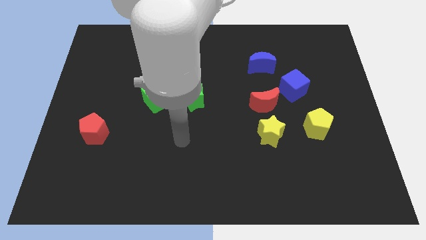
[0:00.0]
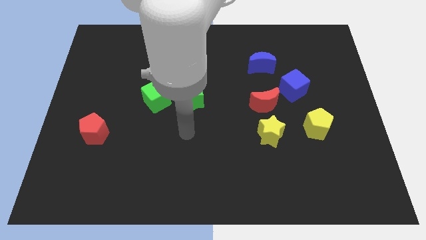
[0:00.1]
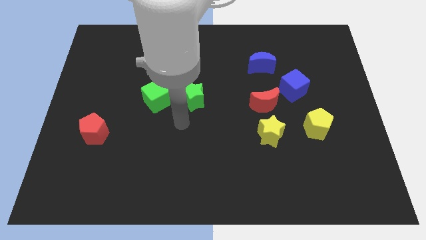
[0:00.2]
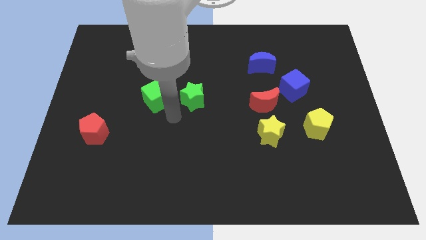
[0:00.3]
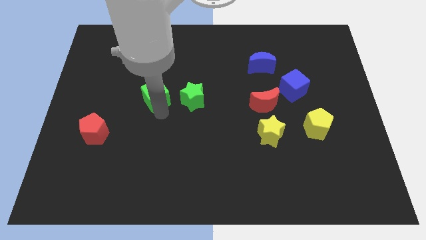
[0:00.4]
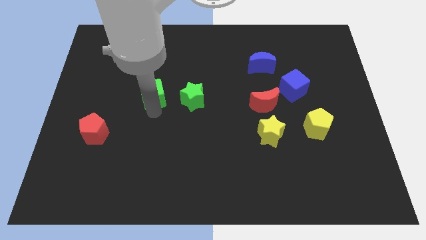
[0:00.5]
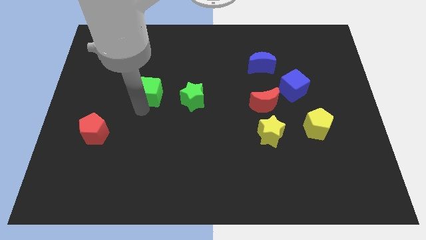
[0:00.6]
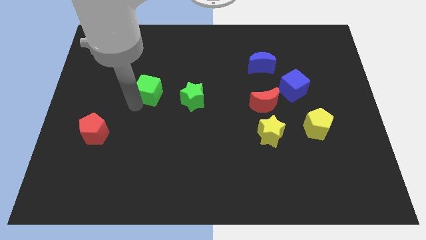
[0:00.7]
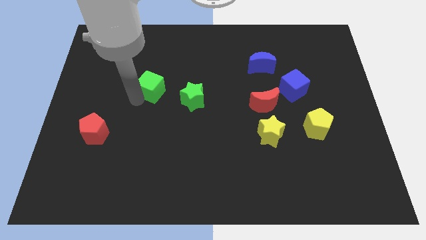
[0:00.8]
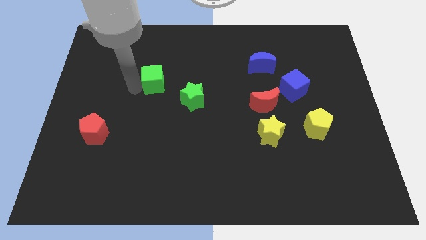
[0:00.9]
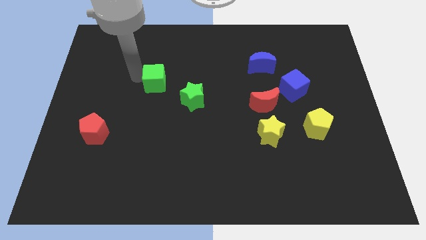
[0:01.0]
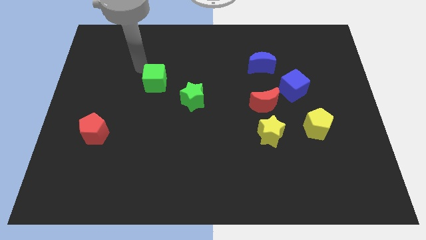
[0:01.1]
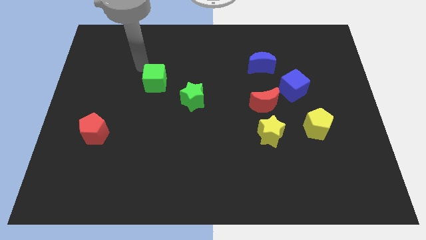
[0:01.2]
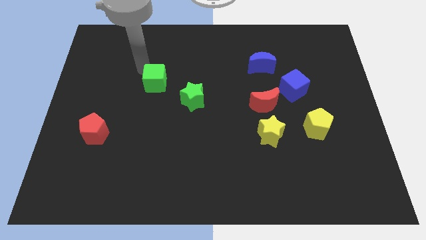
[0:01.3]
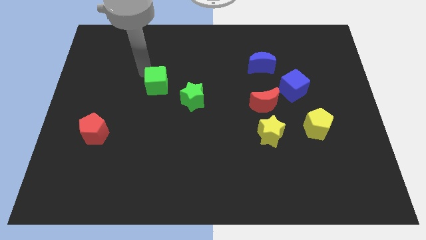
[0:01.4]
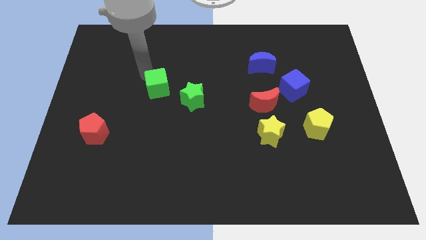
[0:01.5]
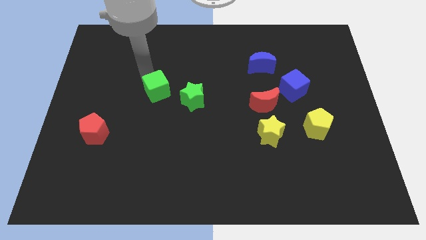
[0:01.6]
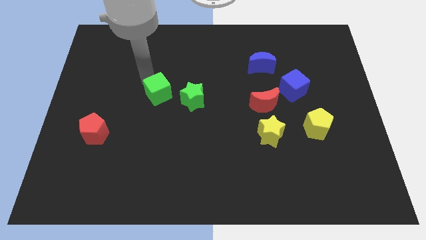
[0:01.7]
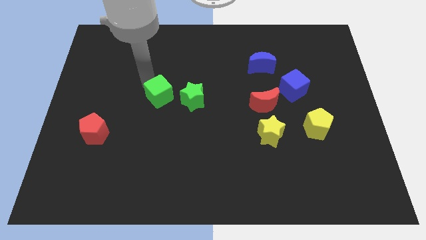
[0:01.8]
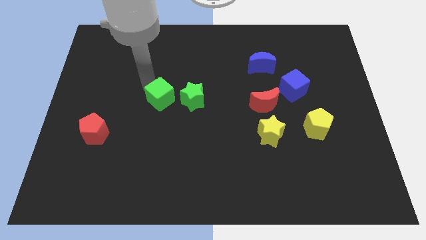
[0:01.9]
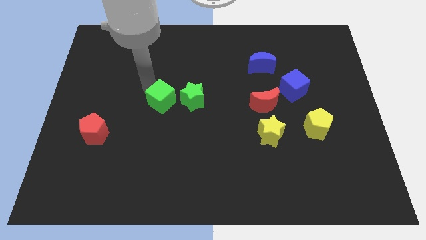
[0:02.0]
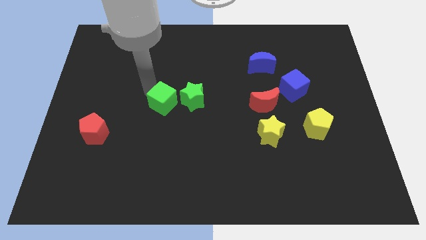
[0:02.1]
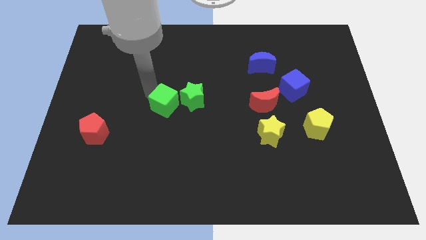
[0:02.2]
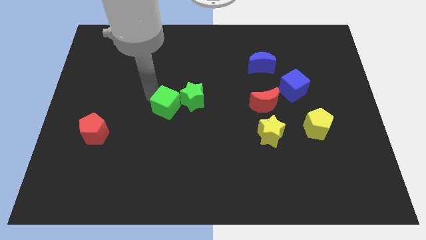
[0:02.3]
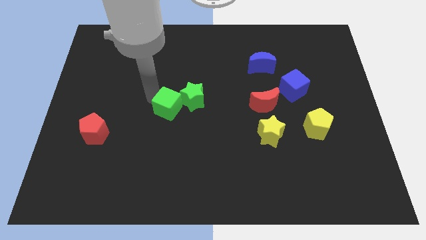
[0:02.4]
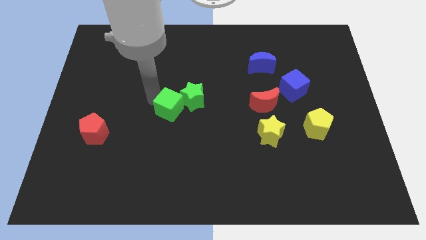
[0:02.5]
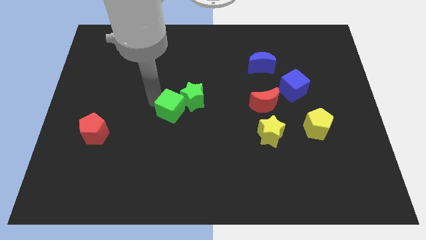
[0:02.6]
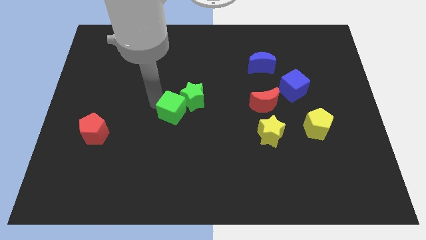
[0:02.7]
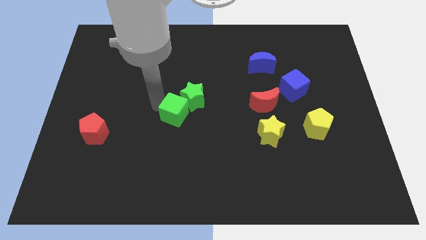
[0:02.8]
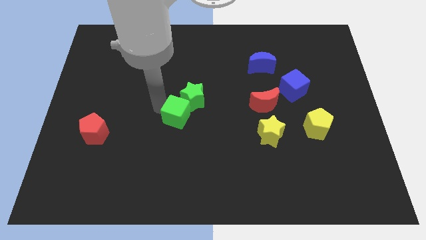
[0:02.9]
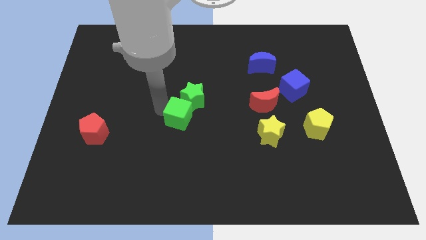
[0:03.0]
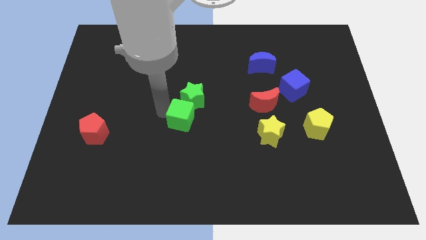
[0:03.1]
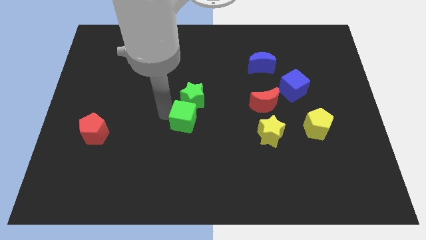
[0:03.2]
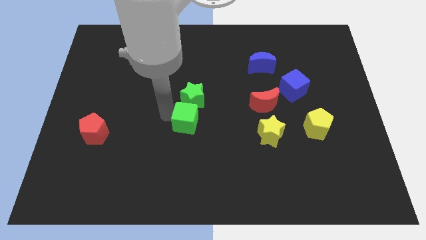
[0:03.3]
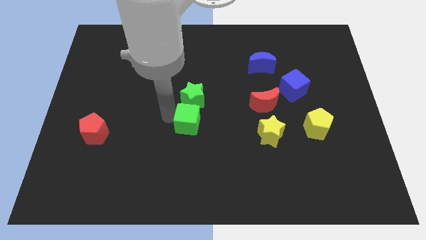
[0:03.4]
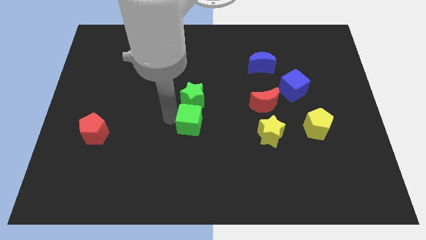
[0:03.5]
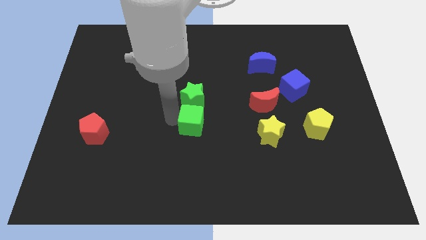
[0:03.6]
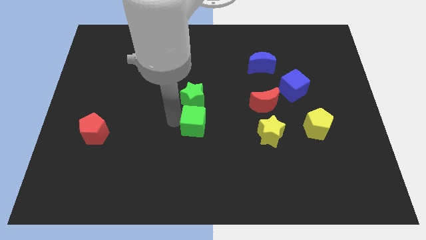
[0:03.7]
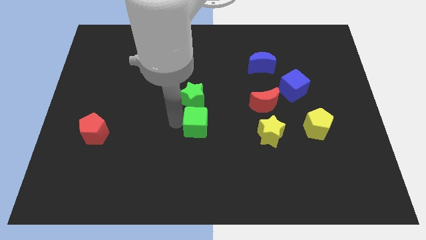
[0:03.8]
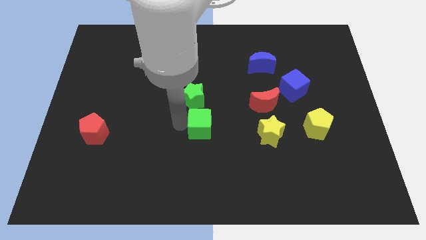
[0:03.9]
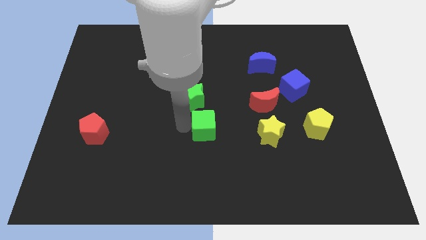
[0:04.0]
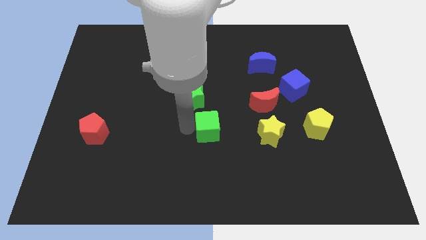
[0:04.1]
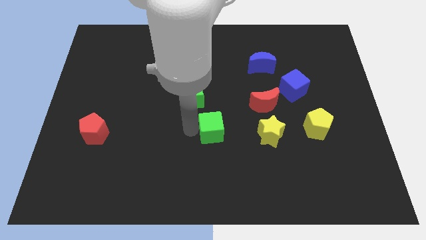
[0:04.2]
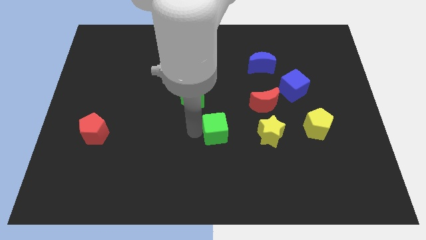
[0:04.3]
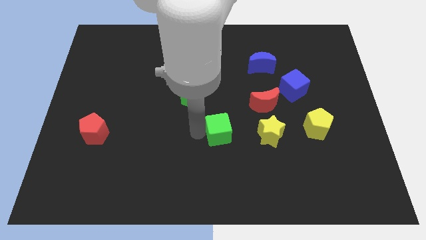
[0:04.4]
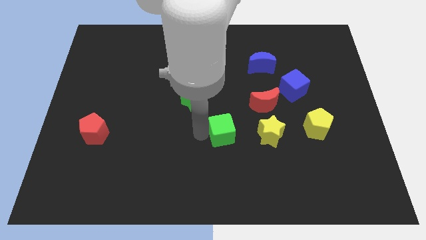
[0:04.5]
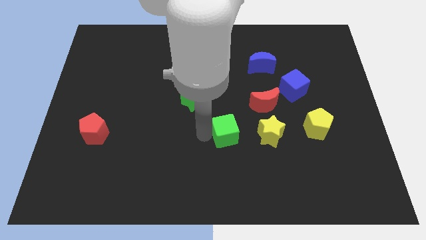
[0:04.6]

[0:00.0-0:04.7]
move the green cube diagonally down and to the left of the red moon

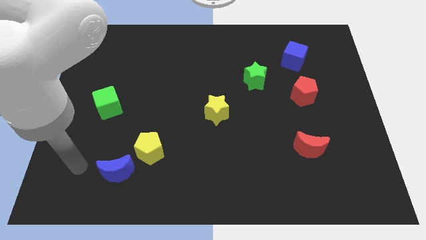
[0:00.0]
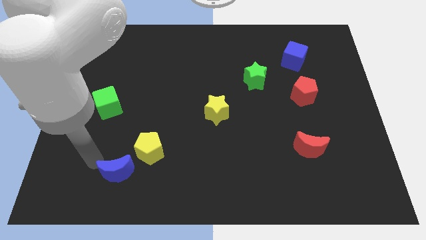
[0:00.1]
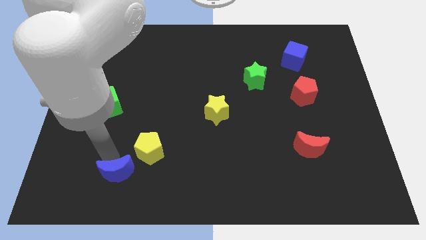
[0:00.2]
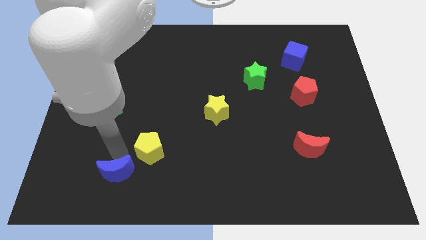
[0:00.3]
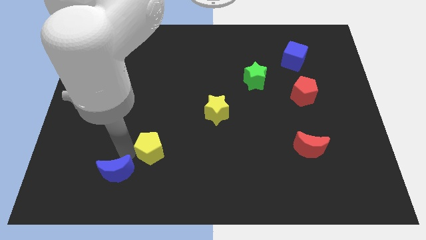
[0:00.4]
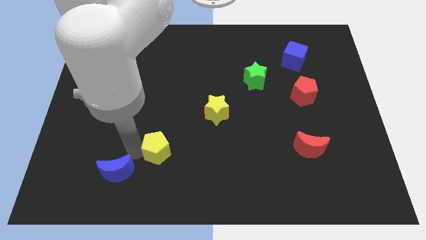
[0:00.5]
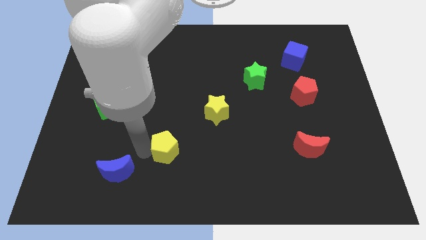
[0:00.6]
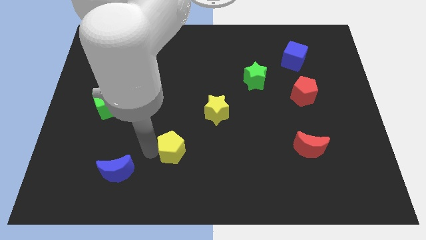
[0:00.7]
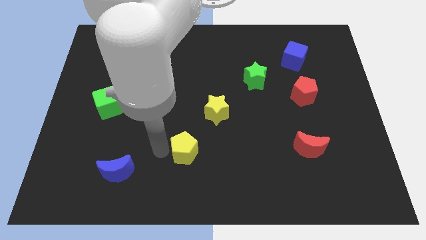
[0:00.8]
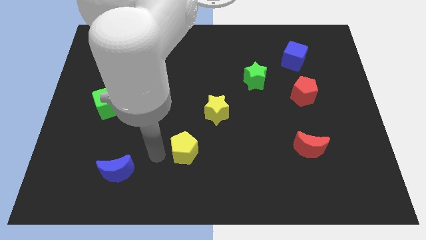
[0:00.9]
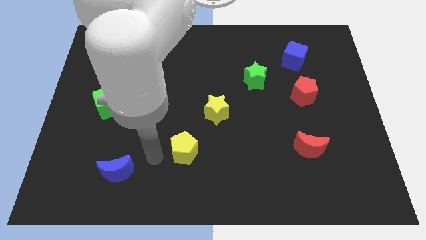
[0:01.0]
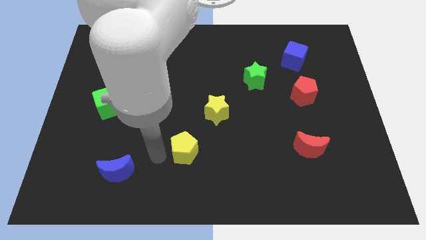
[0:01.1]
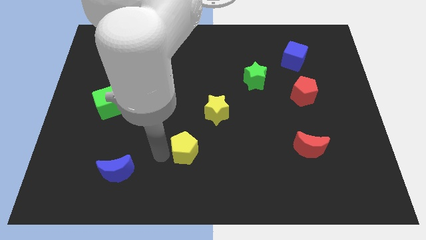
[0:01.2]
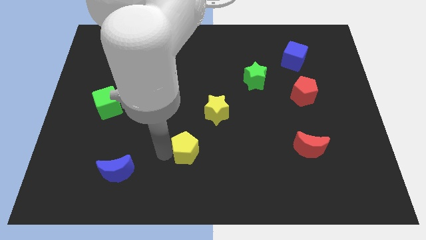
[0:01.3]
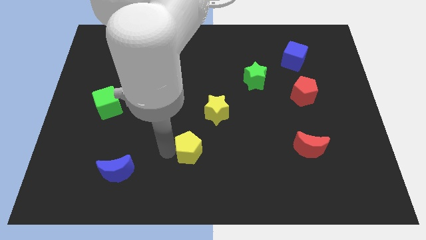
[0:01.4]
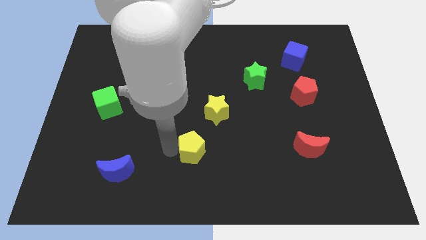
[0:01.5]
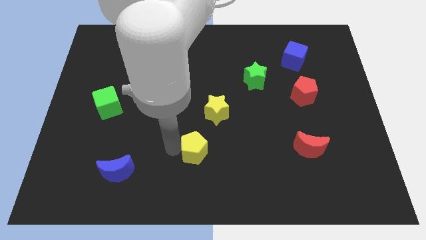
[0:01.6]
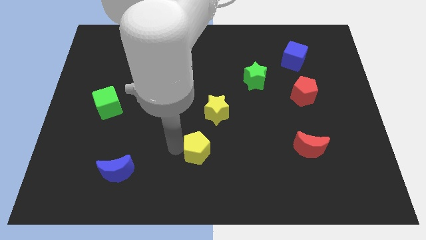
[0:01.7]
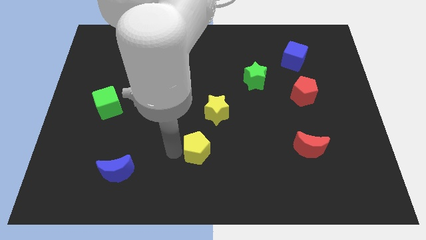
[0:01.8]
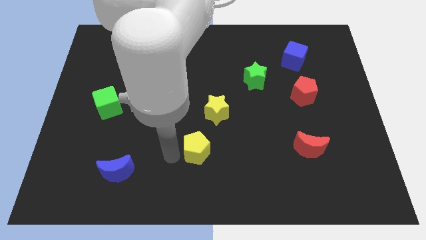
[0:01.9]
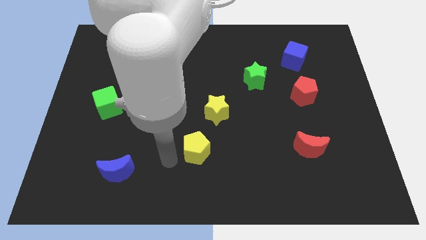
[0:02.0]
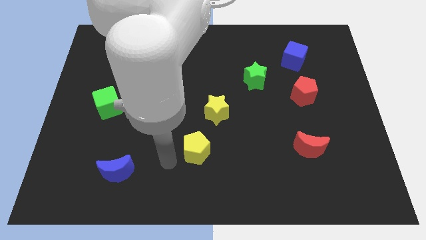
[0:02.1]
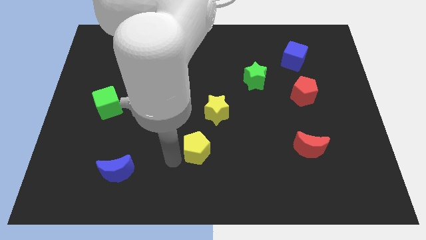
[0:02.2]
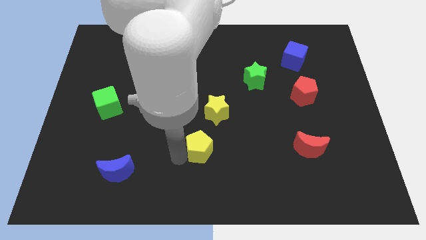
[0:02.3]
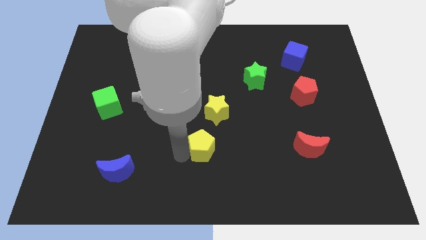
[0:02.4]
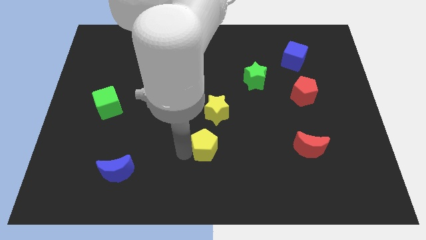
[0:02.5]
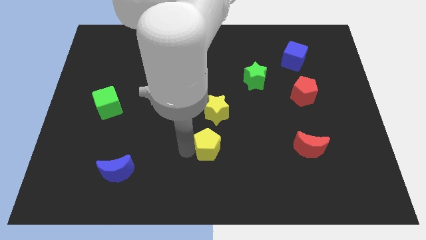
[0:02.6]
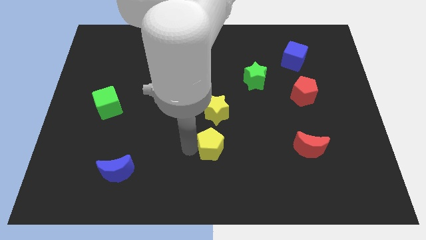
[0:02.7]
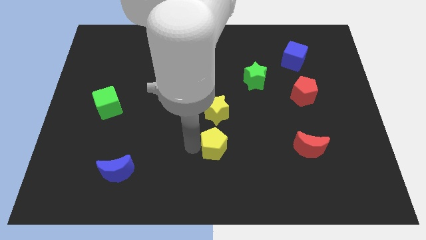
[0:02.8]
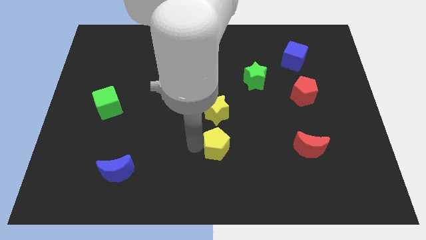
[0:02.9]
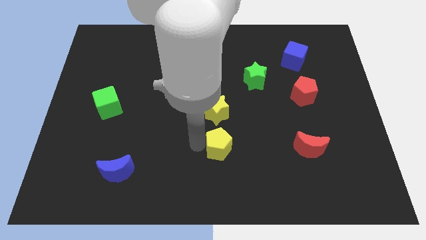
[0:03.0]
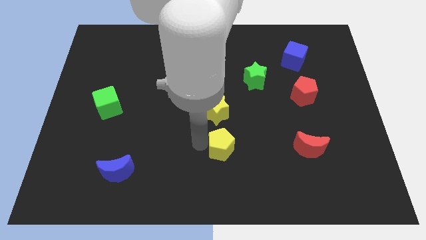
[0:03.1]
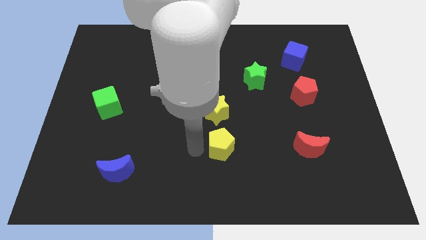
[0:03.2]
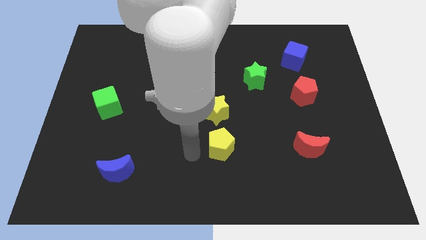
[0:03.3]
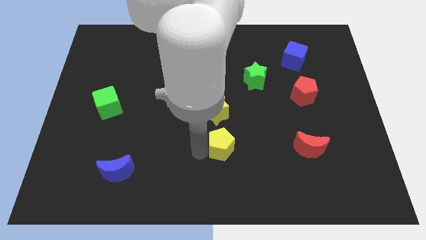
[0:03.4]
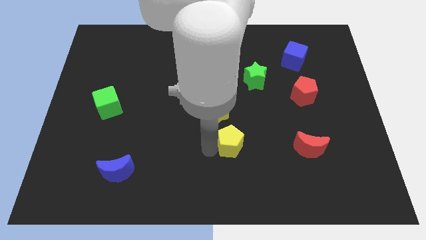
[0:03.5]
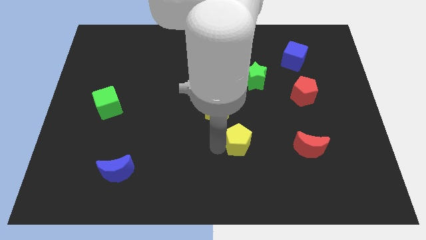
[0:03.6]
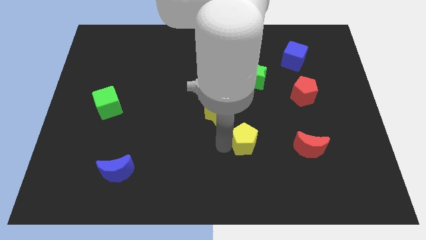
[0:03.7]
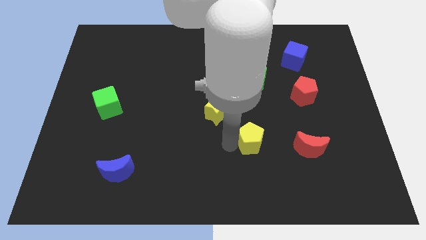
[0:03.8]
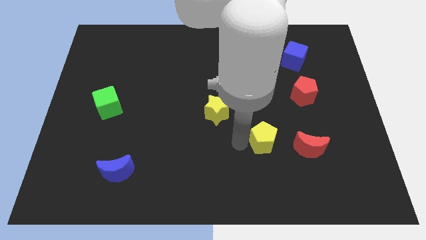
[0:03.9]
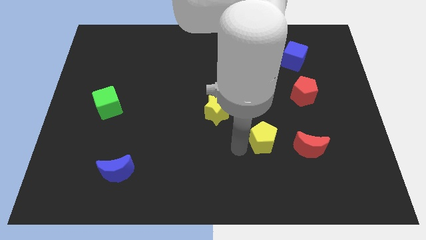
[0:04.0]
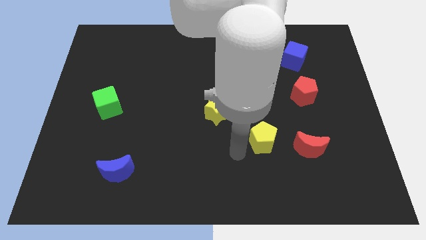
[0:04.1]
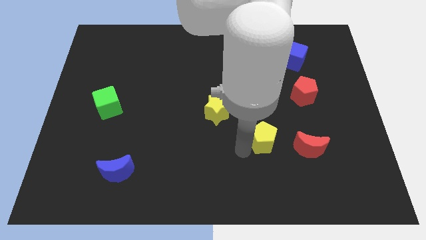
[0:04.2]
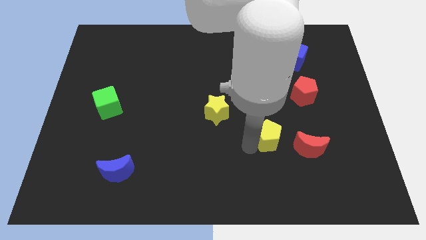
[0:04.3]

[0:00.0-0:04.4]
push the yellow pentagon diagonally up and to the left of the red moon
